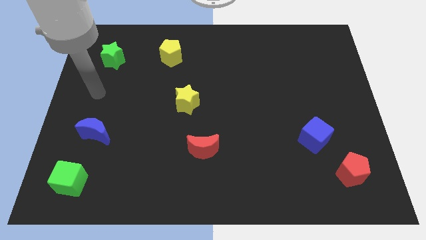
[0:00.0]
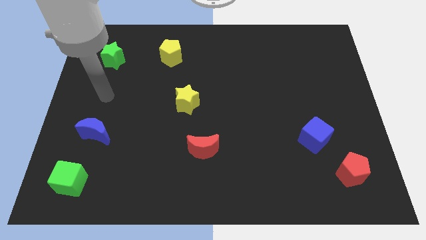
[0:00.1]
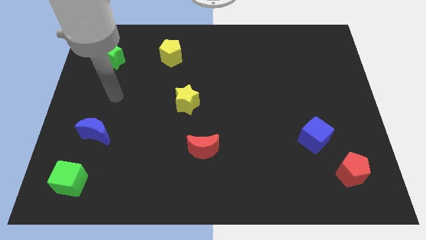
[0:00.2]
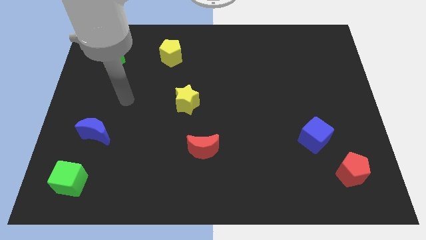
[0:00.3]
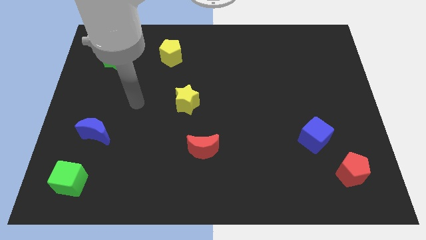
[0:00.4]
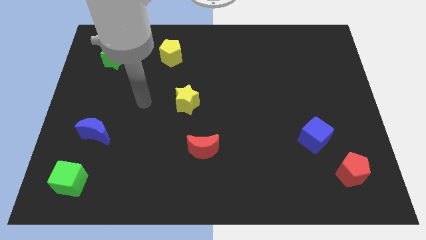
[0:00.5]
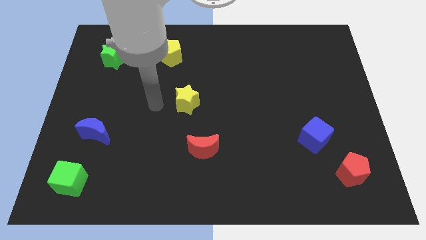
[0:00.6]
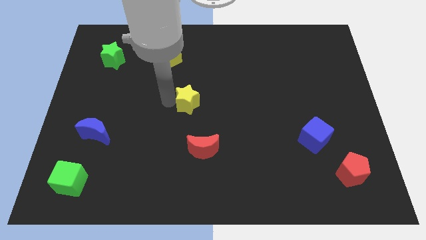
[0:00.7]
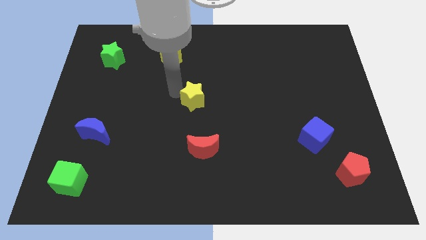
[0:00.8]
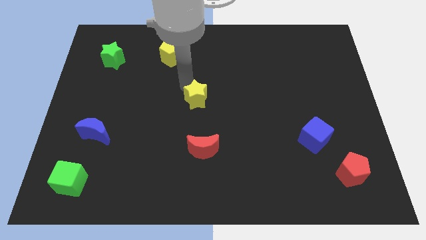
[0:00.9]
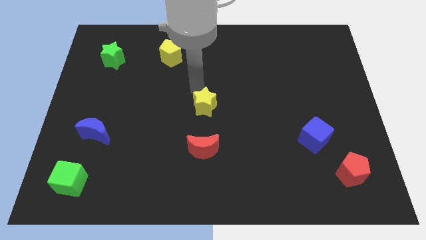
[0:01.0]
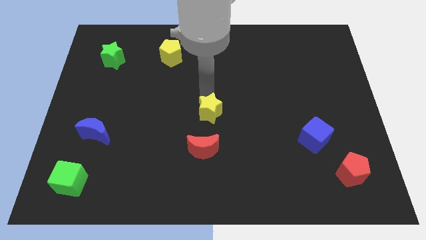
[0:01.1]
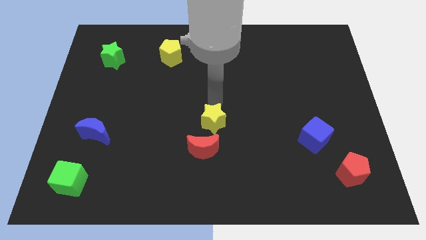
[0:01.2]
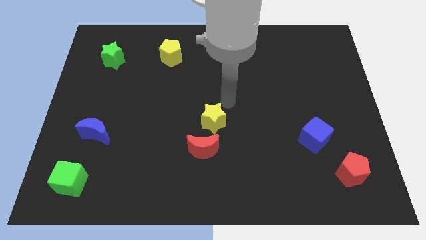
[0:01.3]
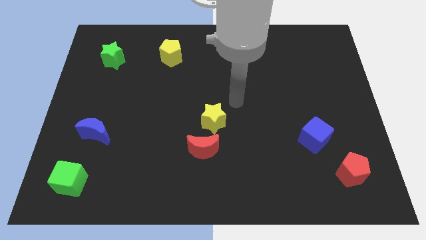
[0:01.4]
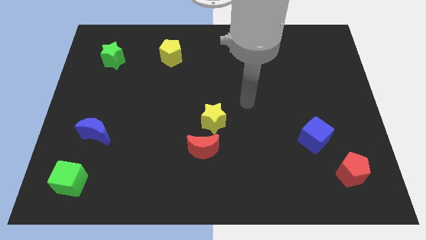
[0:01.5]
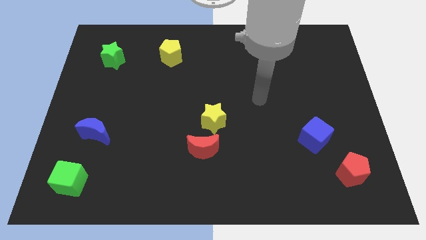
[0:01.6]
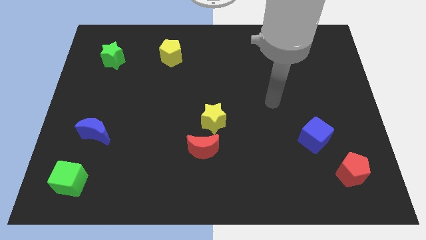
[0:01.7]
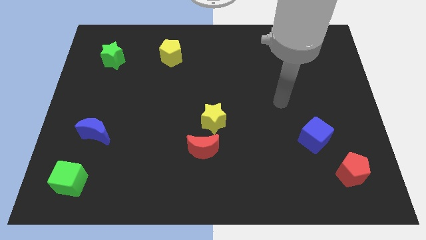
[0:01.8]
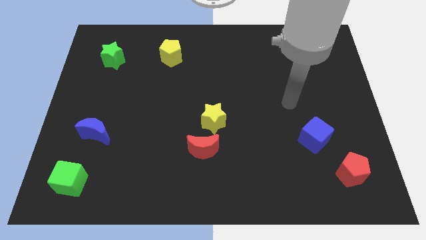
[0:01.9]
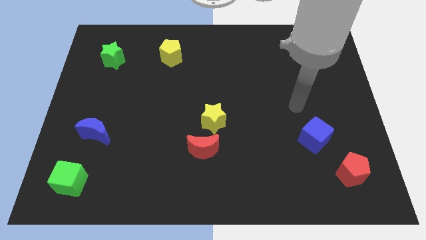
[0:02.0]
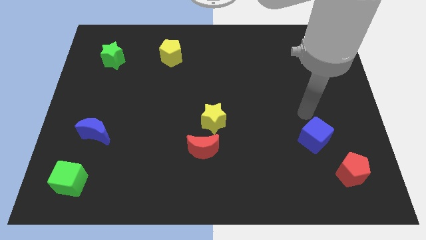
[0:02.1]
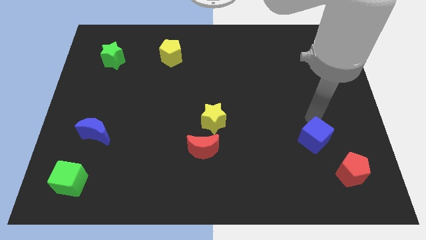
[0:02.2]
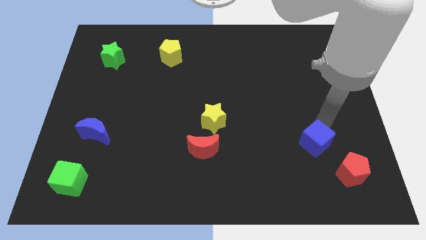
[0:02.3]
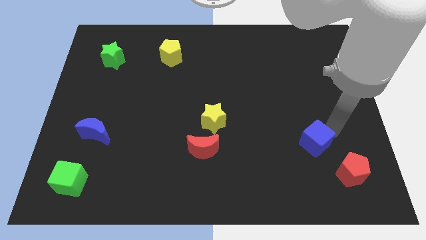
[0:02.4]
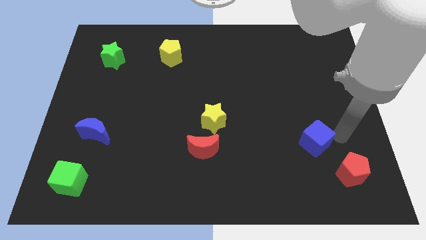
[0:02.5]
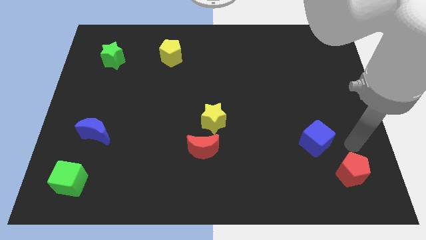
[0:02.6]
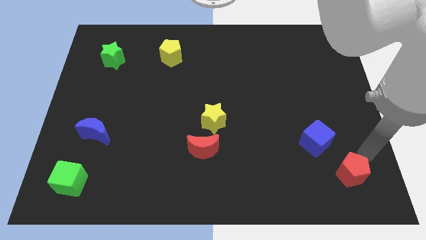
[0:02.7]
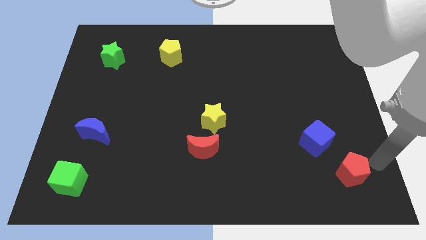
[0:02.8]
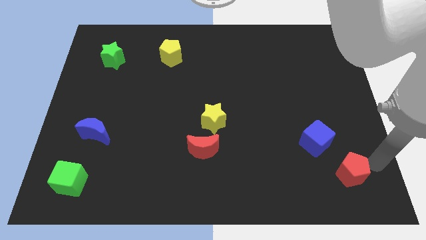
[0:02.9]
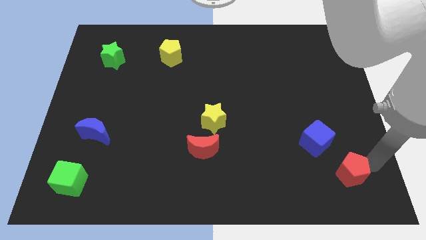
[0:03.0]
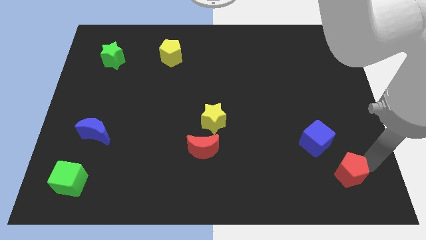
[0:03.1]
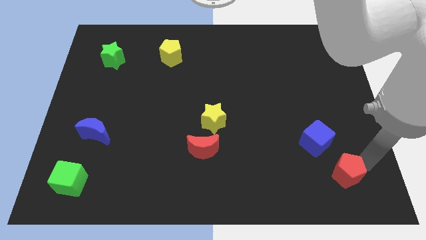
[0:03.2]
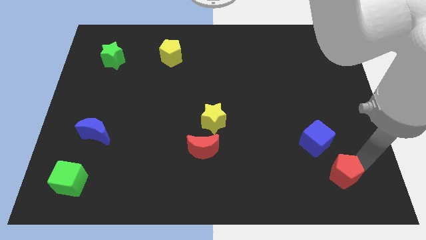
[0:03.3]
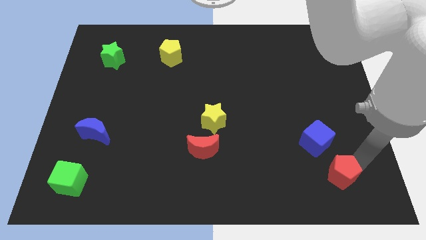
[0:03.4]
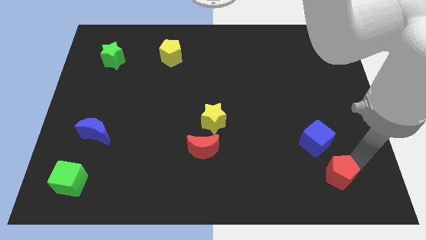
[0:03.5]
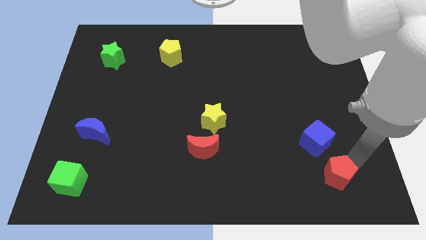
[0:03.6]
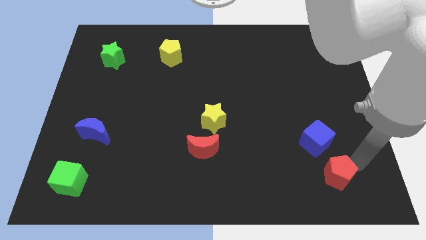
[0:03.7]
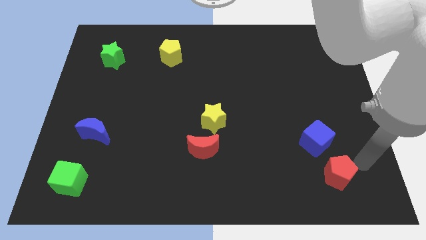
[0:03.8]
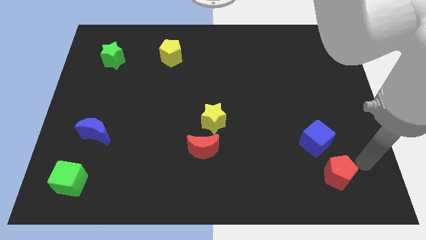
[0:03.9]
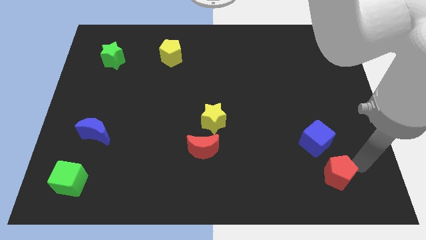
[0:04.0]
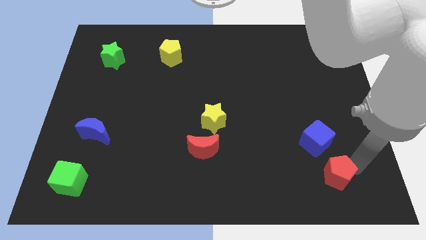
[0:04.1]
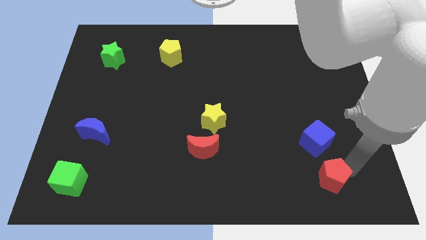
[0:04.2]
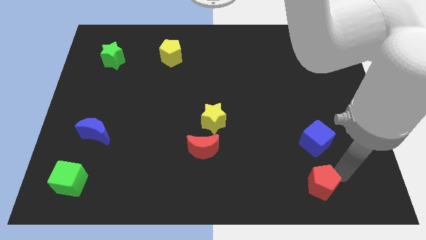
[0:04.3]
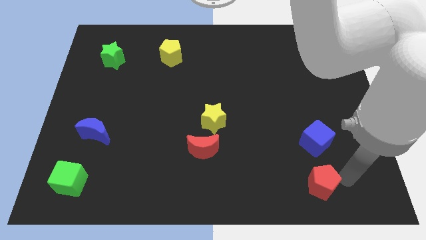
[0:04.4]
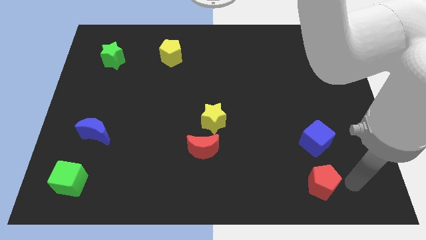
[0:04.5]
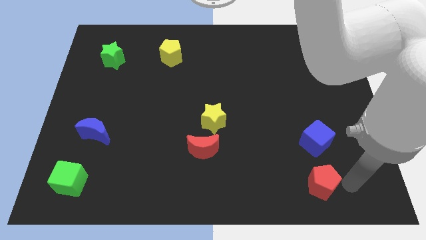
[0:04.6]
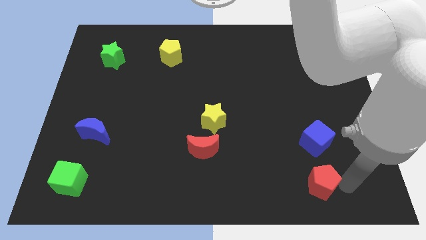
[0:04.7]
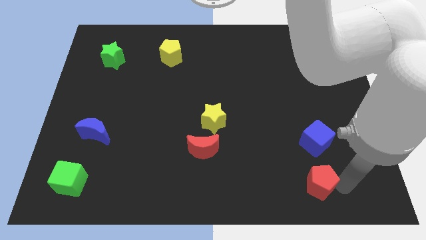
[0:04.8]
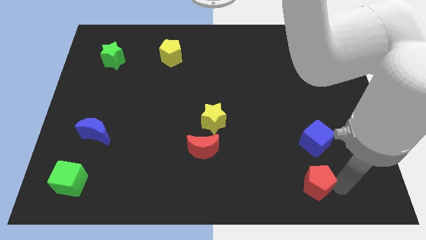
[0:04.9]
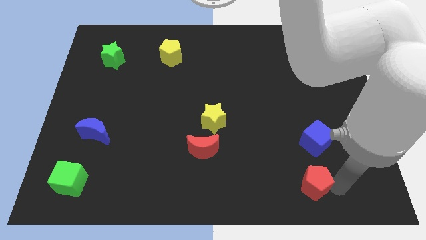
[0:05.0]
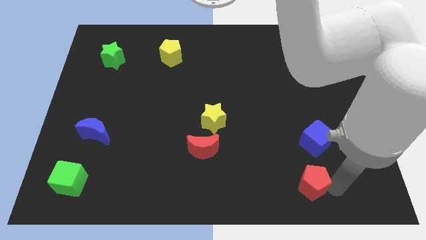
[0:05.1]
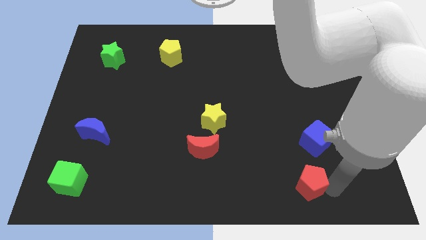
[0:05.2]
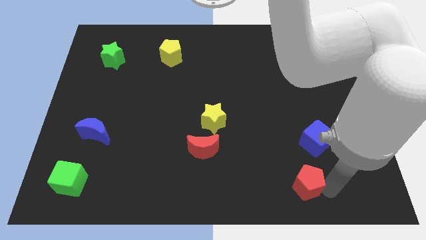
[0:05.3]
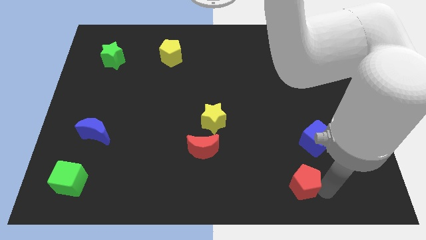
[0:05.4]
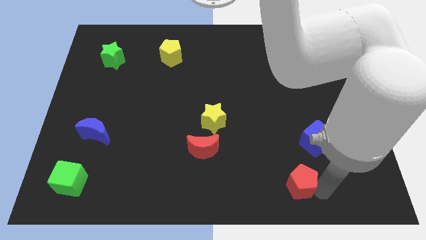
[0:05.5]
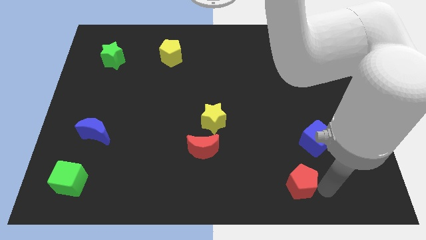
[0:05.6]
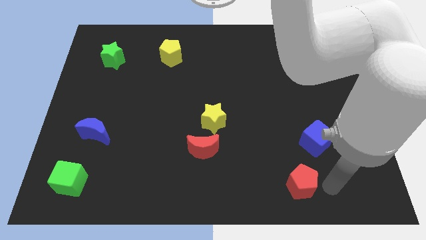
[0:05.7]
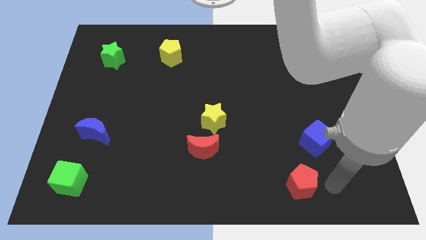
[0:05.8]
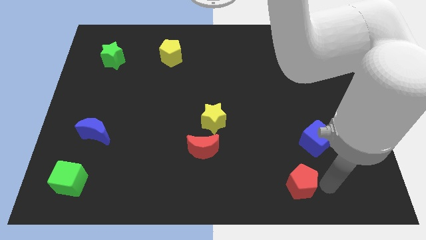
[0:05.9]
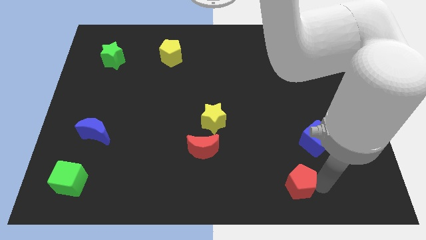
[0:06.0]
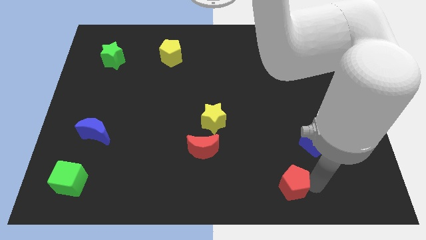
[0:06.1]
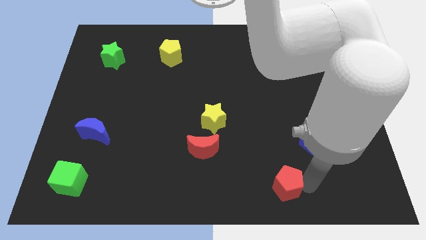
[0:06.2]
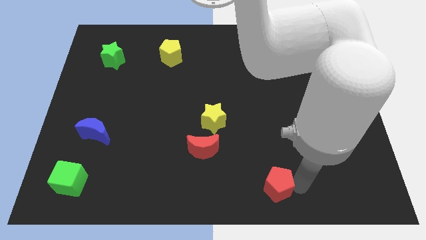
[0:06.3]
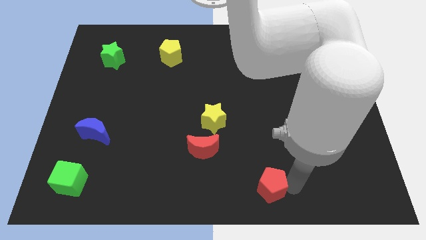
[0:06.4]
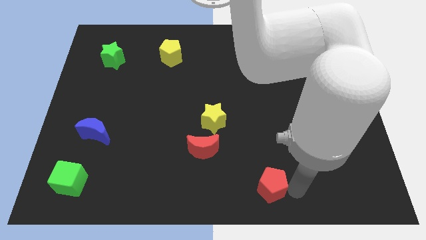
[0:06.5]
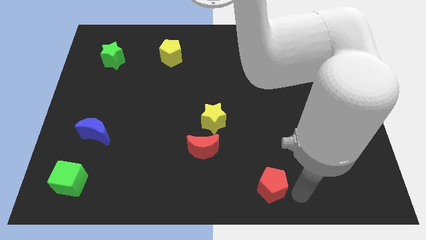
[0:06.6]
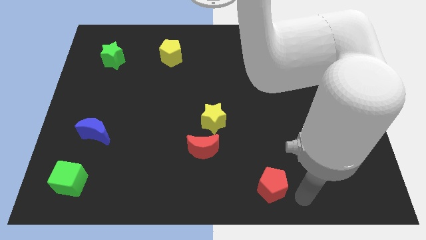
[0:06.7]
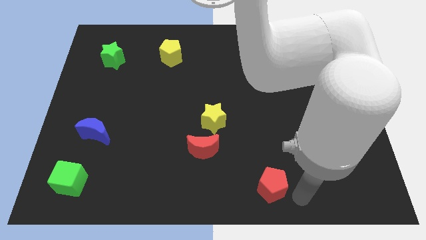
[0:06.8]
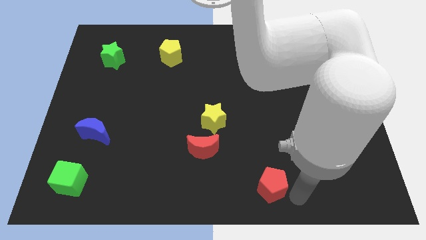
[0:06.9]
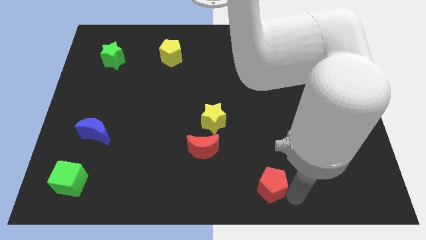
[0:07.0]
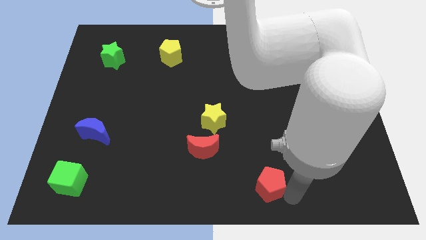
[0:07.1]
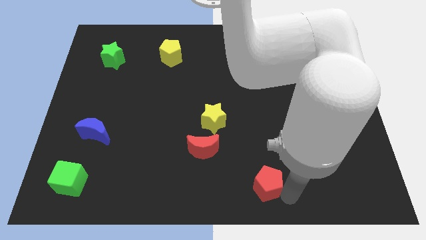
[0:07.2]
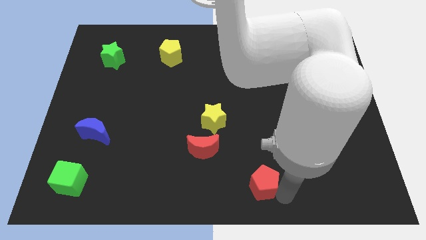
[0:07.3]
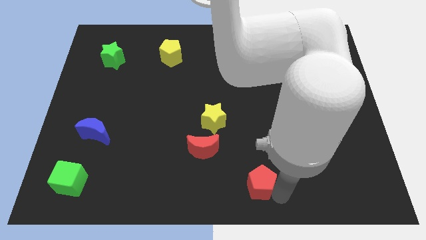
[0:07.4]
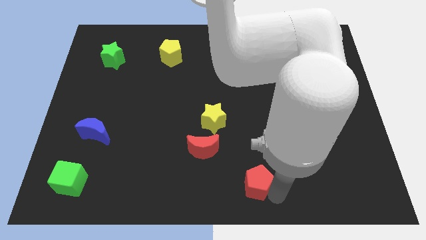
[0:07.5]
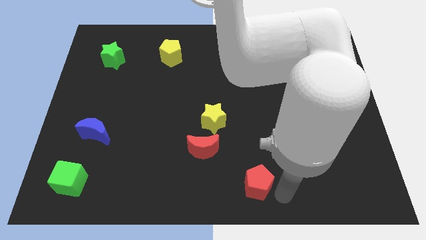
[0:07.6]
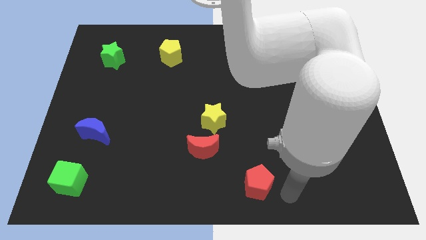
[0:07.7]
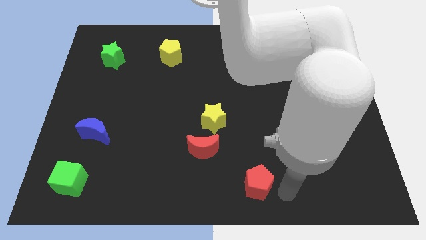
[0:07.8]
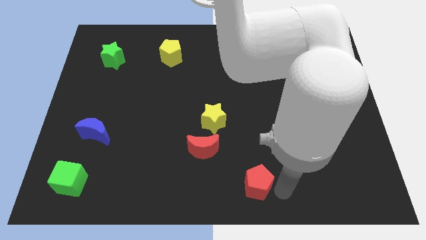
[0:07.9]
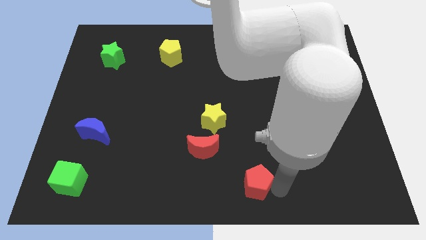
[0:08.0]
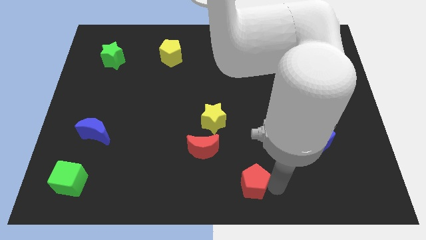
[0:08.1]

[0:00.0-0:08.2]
move the red pentagon to the left

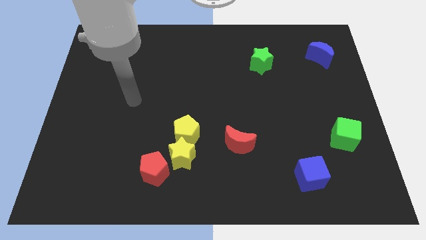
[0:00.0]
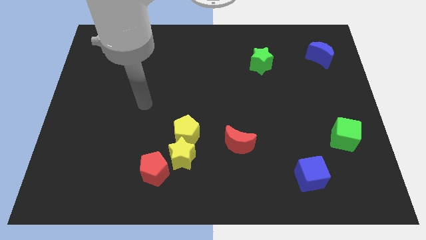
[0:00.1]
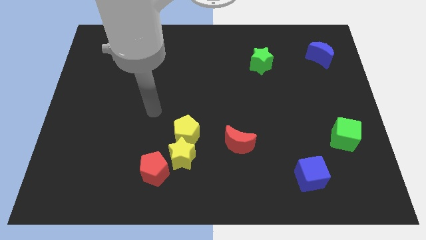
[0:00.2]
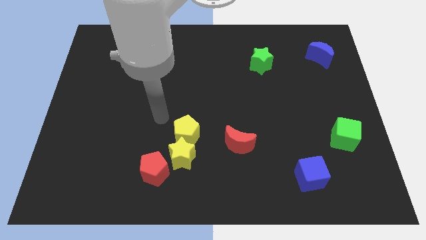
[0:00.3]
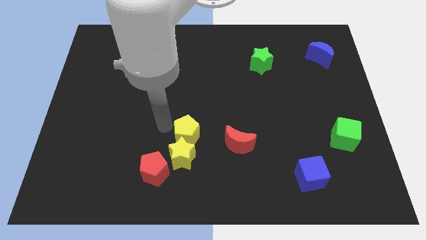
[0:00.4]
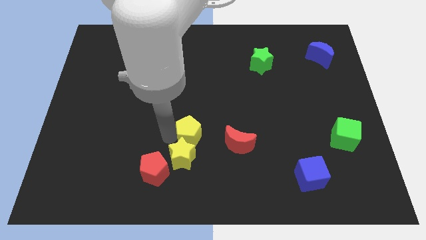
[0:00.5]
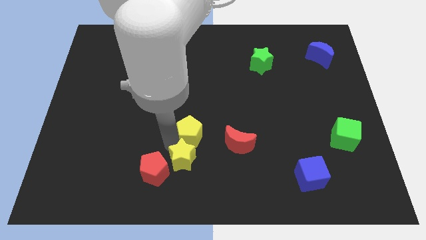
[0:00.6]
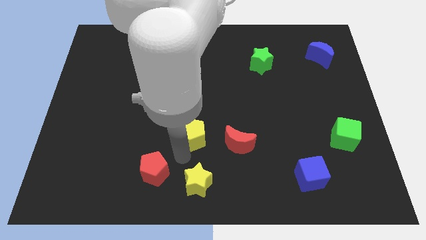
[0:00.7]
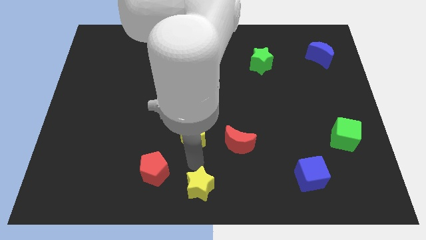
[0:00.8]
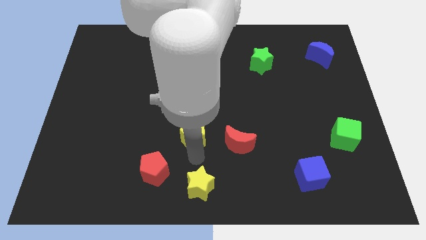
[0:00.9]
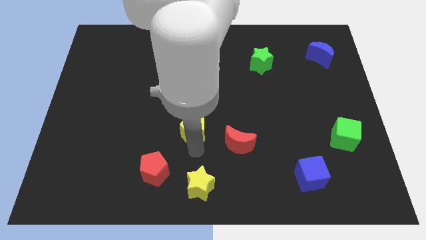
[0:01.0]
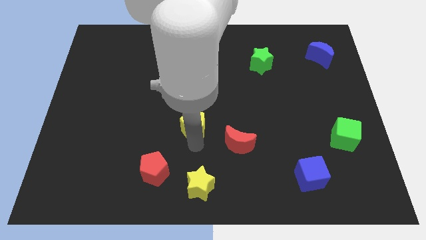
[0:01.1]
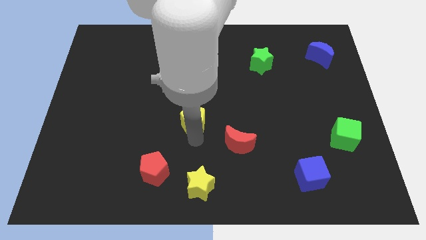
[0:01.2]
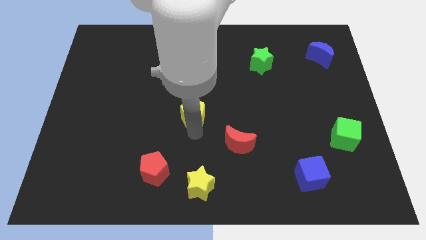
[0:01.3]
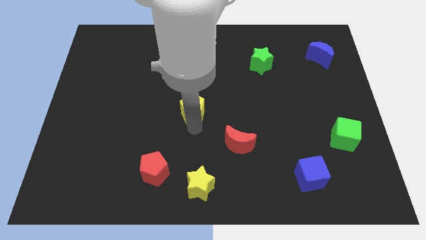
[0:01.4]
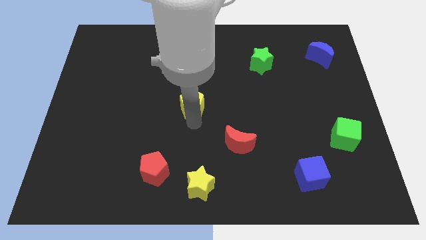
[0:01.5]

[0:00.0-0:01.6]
slide the yellow pentagon upwards a little bit
